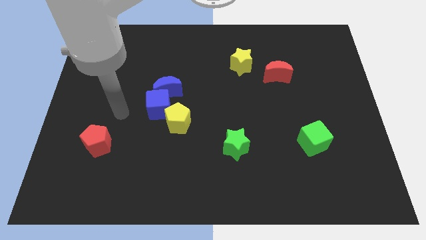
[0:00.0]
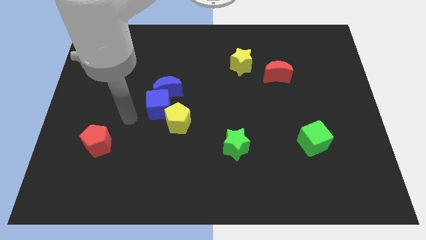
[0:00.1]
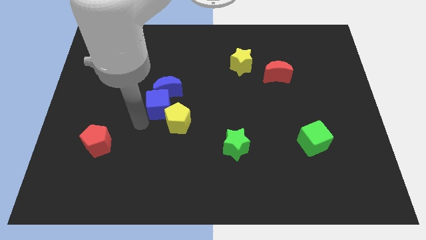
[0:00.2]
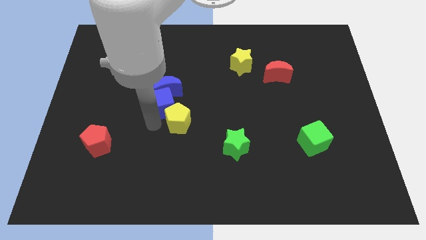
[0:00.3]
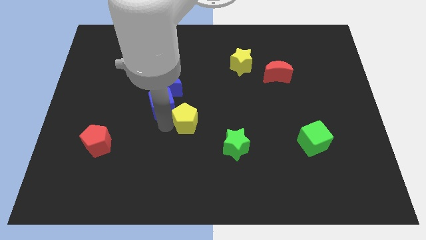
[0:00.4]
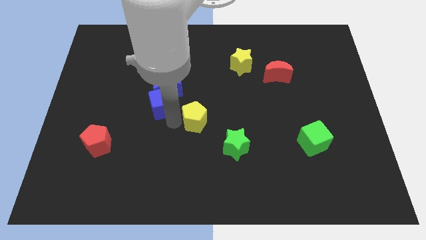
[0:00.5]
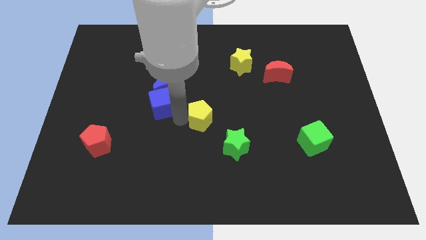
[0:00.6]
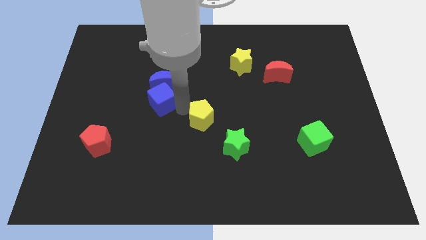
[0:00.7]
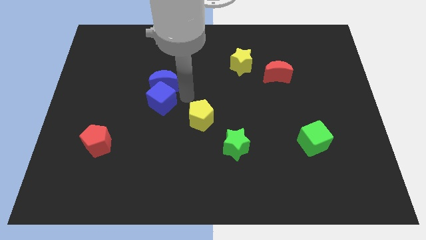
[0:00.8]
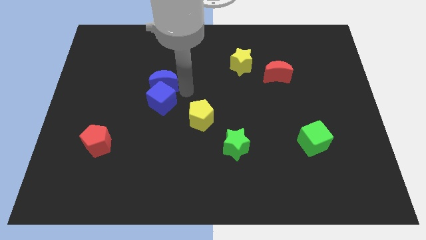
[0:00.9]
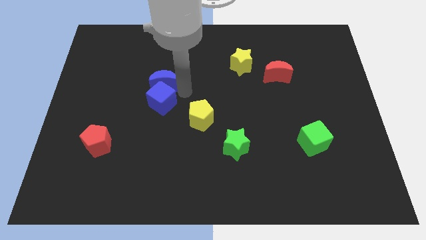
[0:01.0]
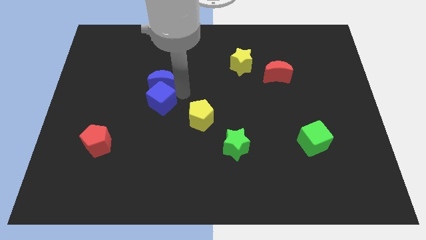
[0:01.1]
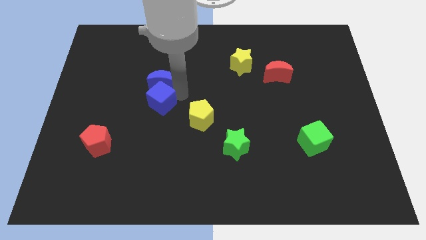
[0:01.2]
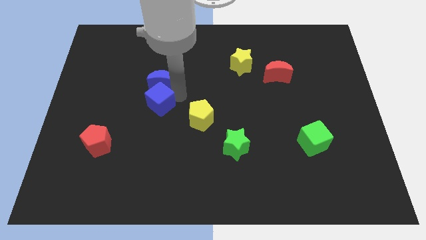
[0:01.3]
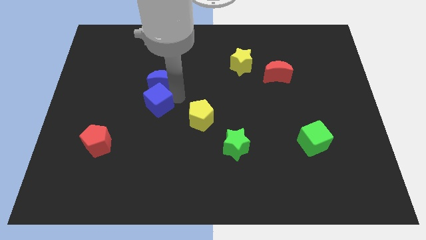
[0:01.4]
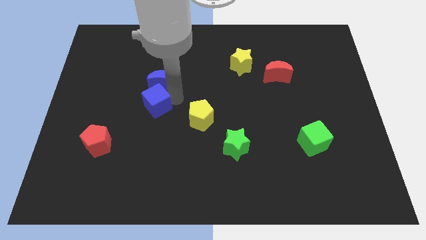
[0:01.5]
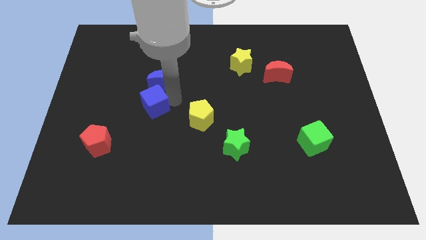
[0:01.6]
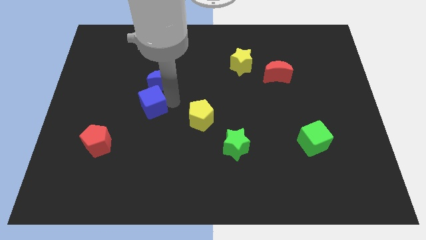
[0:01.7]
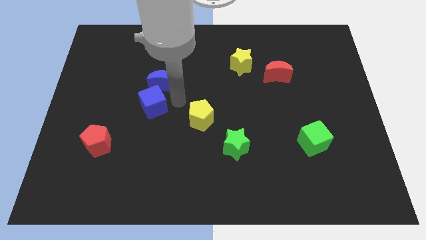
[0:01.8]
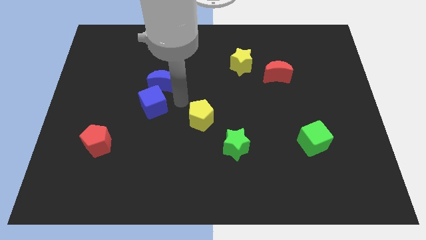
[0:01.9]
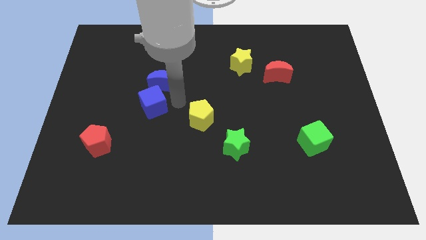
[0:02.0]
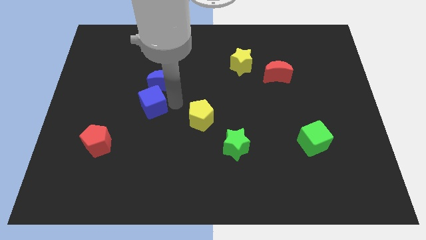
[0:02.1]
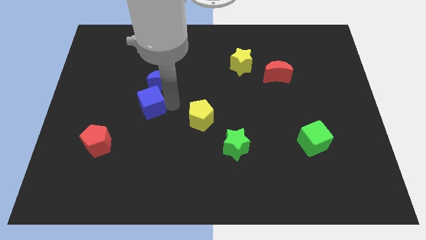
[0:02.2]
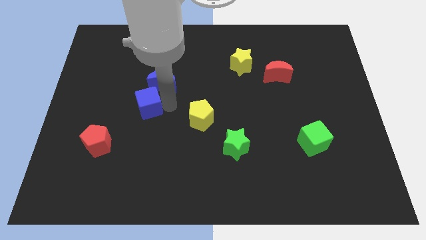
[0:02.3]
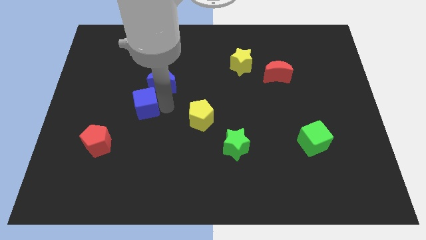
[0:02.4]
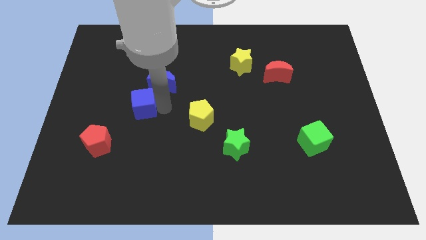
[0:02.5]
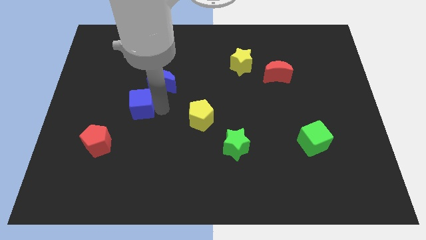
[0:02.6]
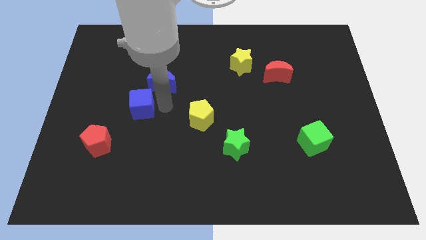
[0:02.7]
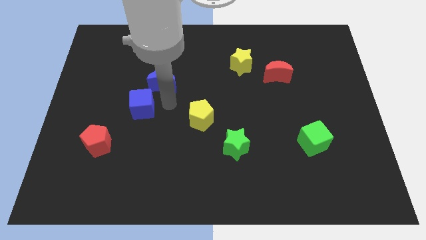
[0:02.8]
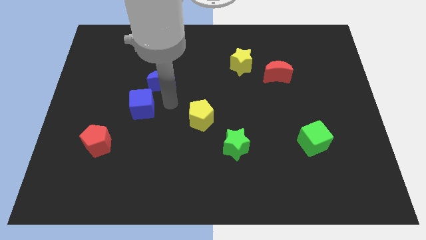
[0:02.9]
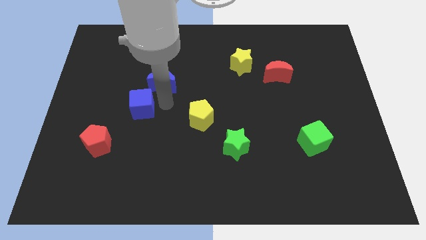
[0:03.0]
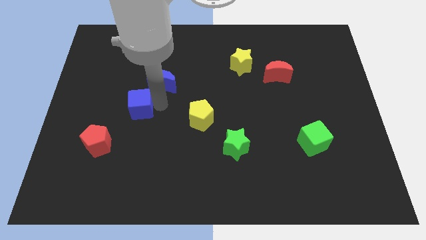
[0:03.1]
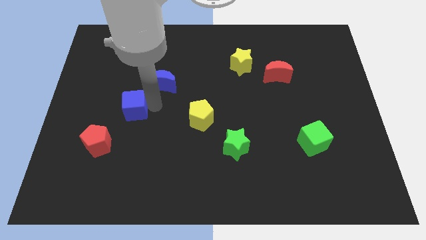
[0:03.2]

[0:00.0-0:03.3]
move the blue cube away from the blue moon and yellow pentagon

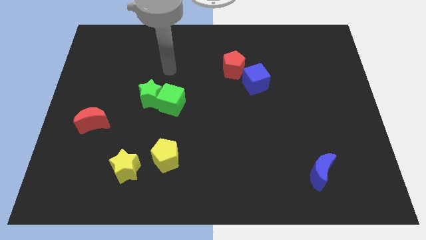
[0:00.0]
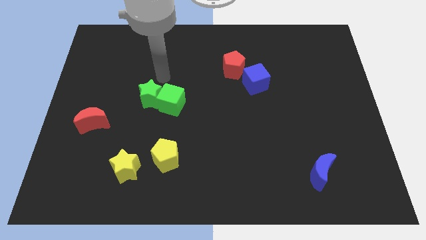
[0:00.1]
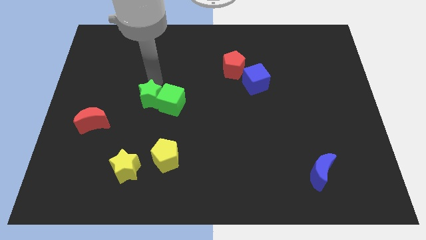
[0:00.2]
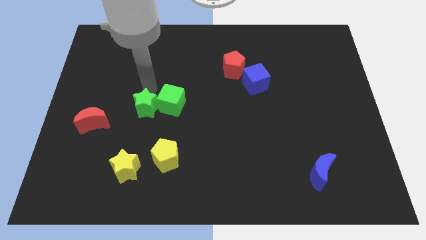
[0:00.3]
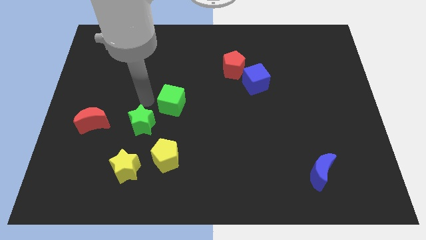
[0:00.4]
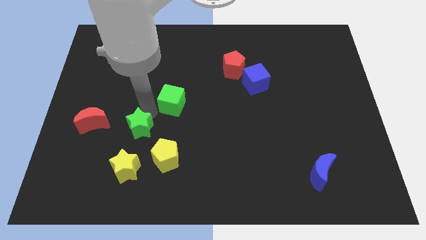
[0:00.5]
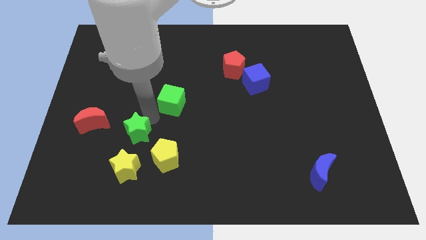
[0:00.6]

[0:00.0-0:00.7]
move the green cube away from the green star

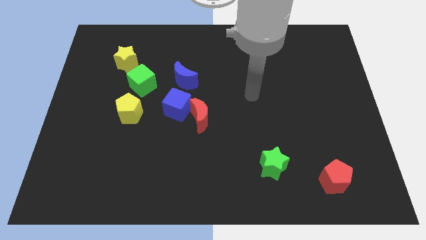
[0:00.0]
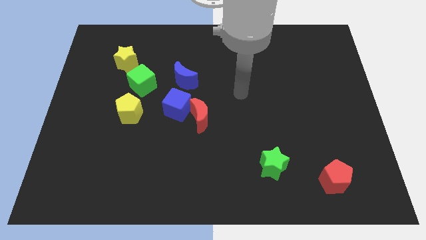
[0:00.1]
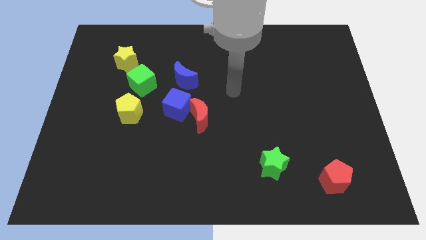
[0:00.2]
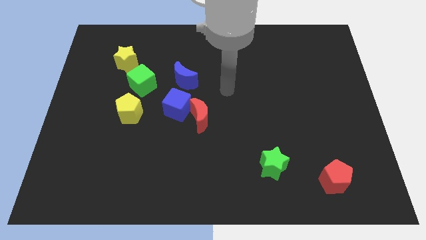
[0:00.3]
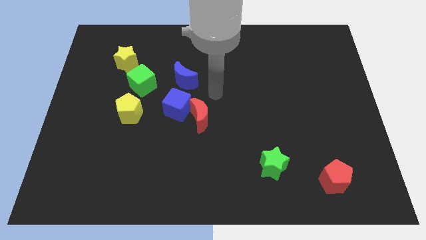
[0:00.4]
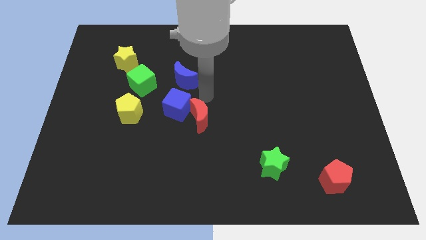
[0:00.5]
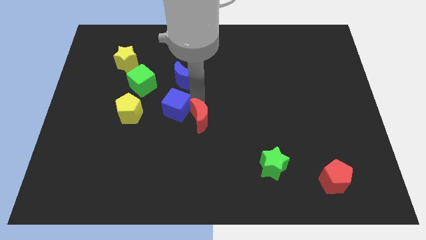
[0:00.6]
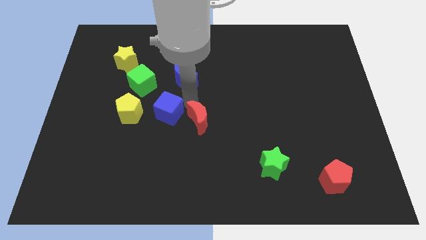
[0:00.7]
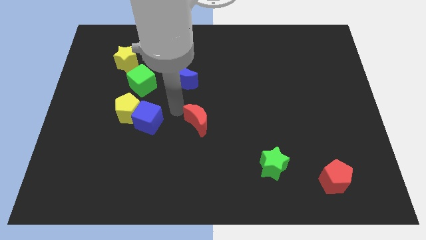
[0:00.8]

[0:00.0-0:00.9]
pull the red moon apart from the blue cube

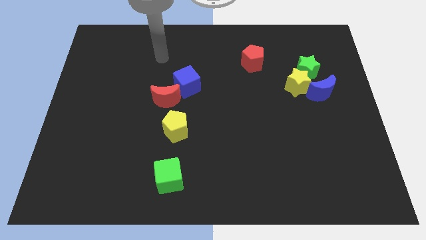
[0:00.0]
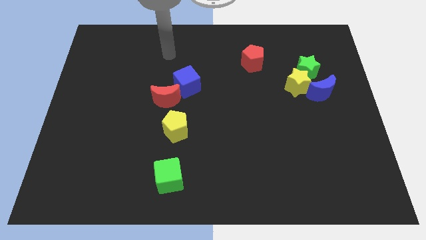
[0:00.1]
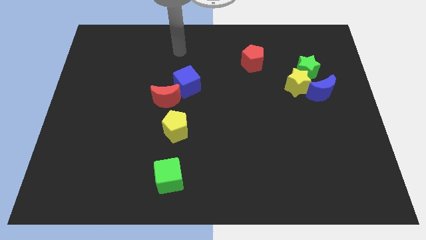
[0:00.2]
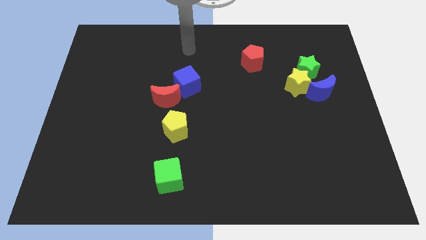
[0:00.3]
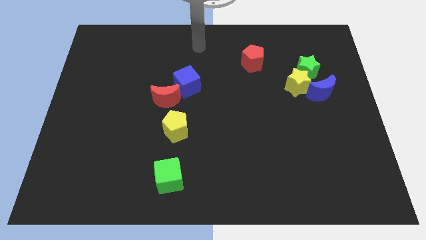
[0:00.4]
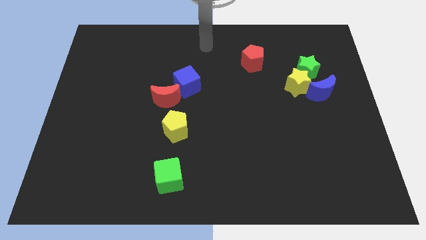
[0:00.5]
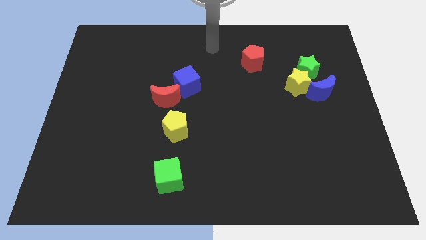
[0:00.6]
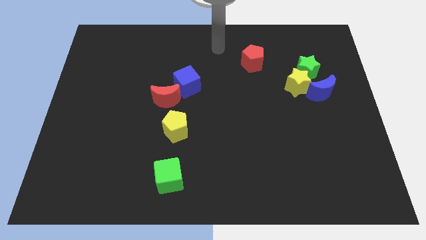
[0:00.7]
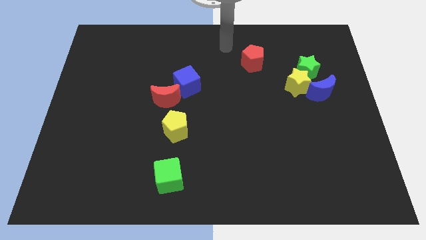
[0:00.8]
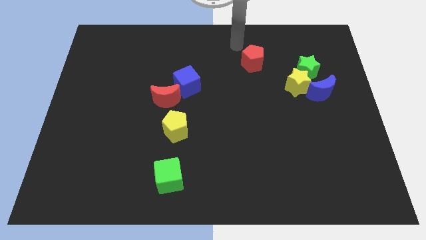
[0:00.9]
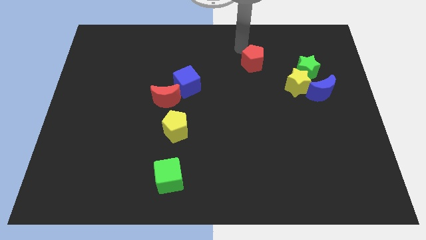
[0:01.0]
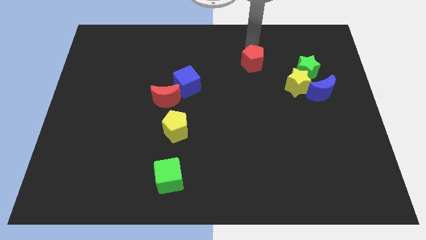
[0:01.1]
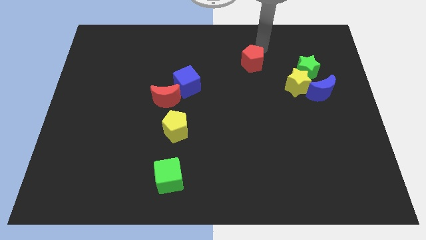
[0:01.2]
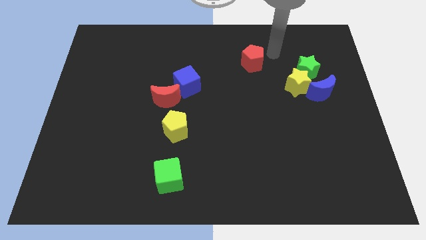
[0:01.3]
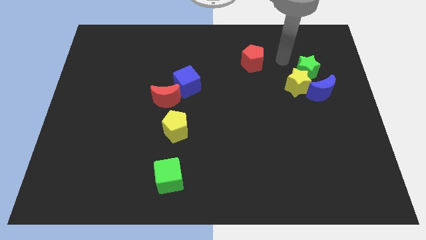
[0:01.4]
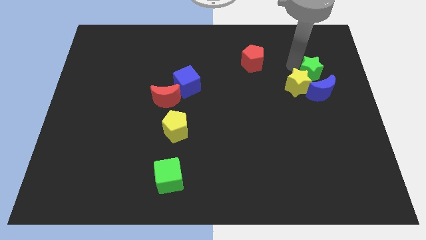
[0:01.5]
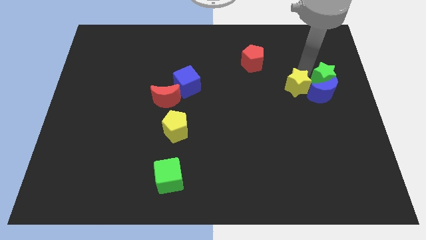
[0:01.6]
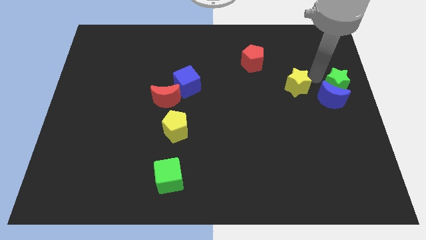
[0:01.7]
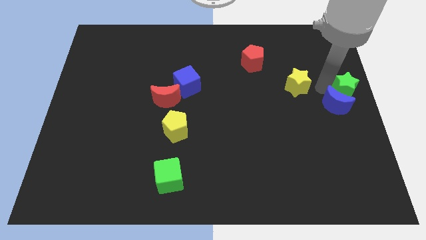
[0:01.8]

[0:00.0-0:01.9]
separate the yellow star from the green star and blue moon

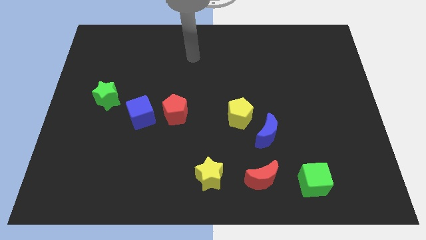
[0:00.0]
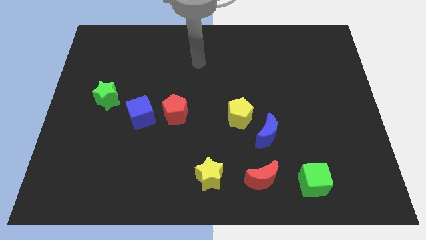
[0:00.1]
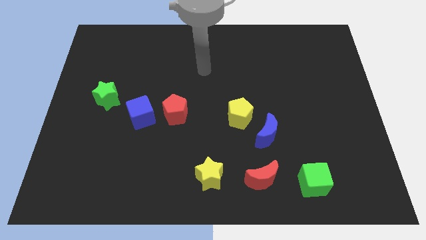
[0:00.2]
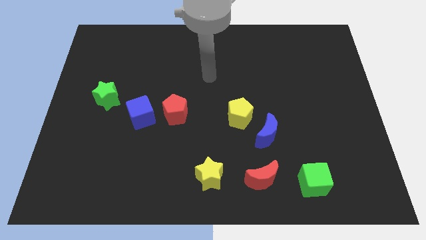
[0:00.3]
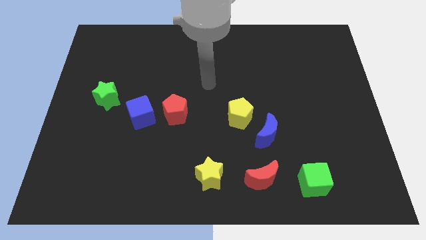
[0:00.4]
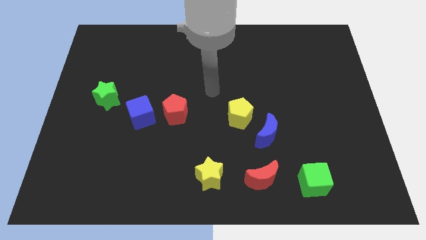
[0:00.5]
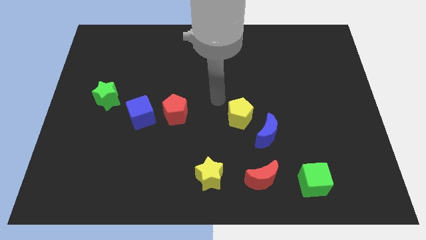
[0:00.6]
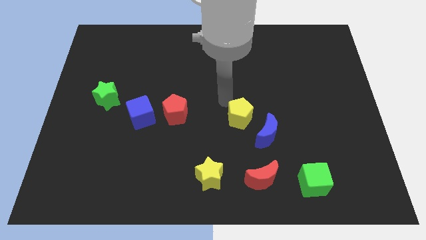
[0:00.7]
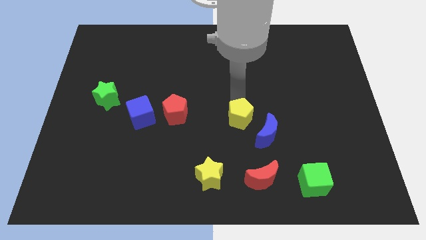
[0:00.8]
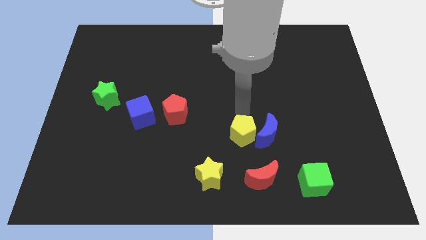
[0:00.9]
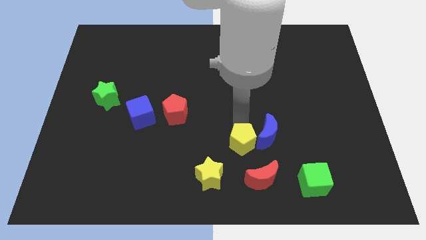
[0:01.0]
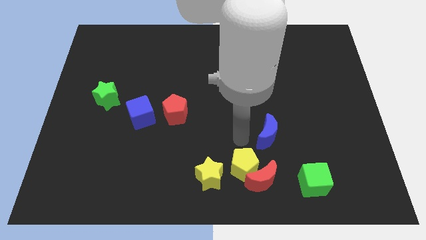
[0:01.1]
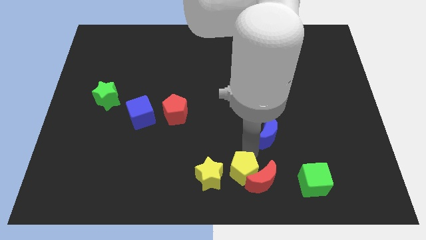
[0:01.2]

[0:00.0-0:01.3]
pull the blue moon apart from the yellow pentagon

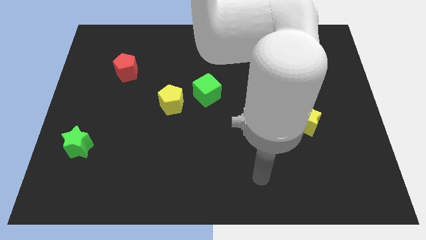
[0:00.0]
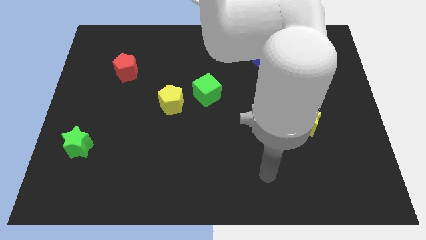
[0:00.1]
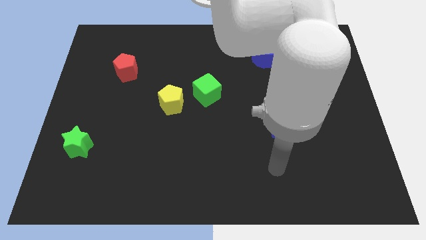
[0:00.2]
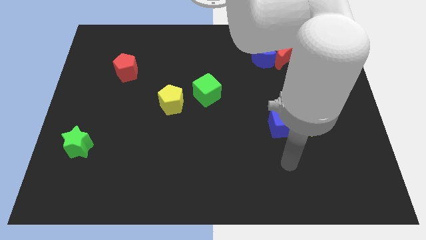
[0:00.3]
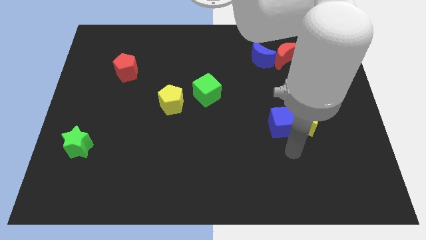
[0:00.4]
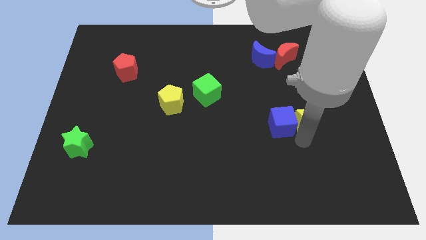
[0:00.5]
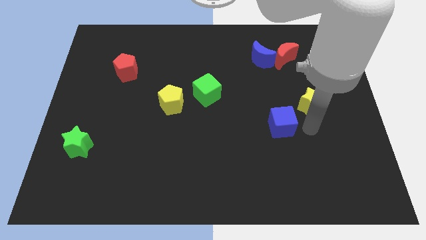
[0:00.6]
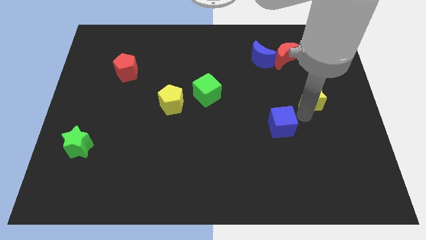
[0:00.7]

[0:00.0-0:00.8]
pull the blue cube apart from the yellow star

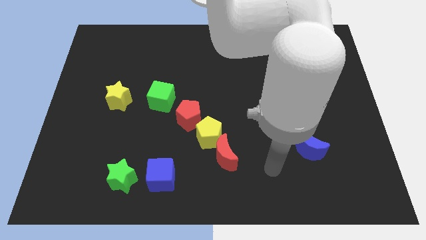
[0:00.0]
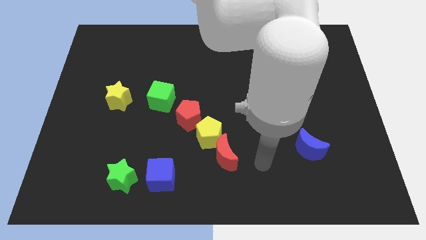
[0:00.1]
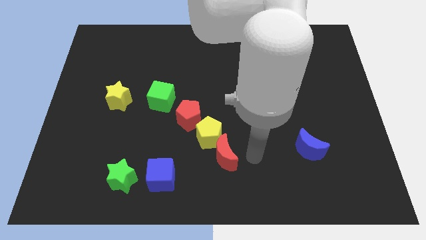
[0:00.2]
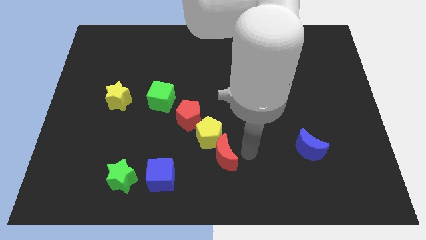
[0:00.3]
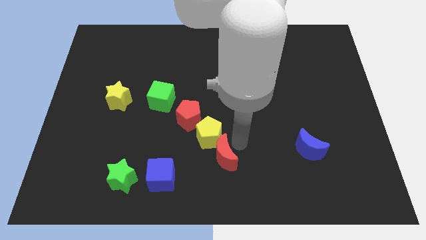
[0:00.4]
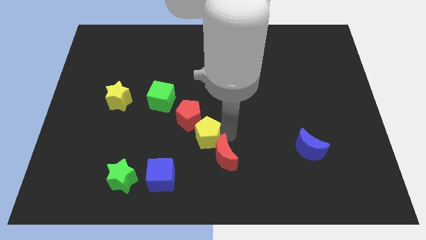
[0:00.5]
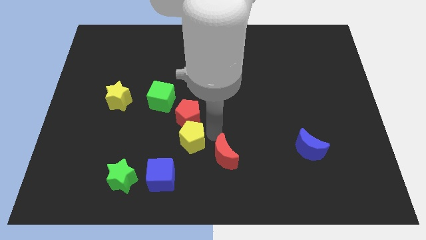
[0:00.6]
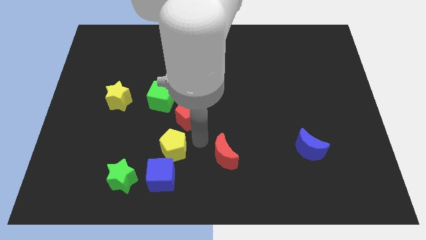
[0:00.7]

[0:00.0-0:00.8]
pull the red moon apart from the yellow pentagon
